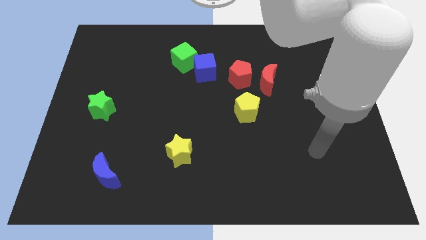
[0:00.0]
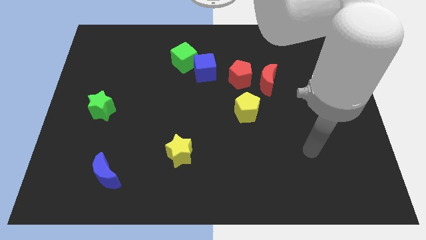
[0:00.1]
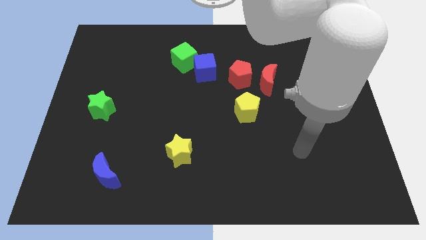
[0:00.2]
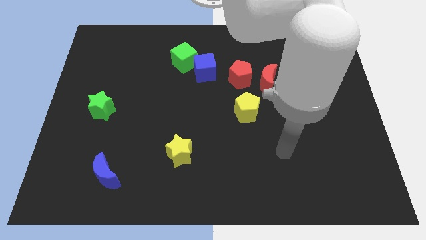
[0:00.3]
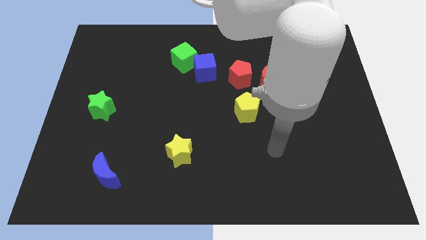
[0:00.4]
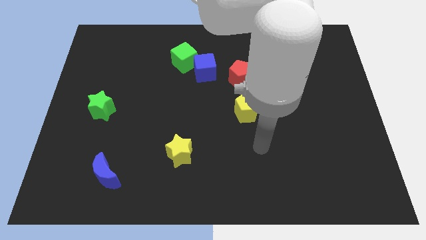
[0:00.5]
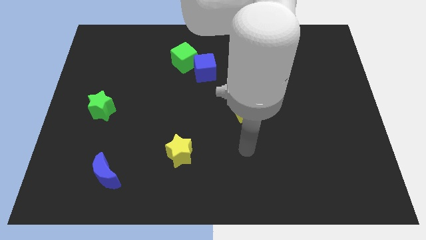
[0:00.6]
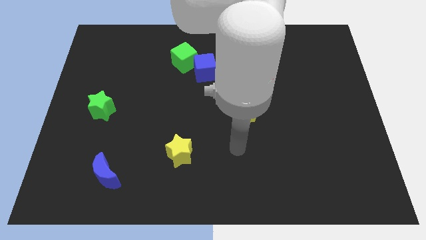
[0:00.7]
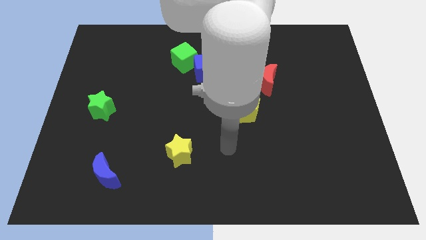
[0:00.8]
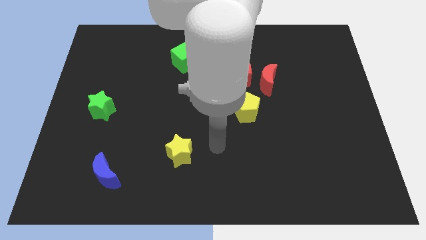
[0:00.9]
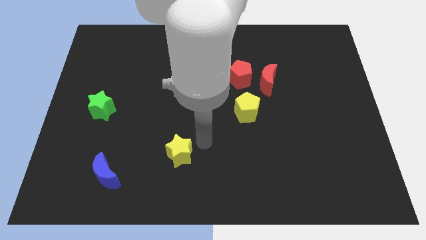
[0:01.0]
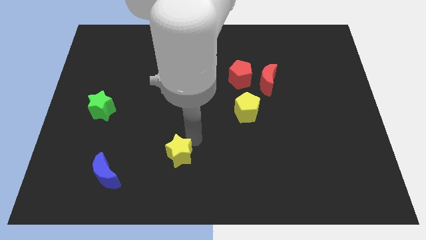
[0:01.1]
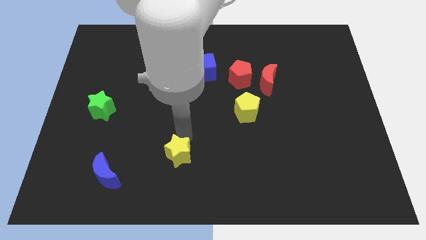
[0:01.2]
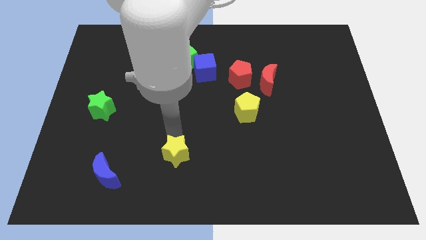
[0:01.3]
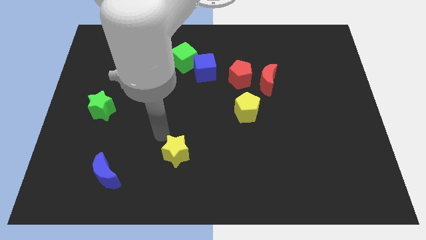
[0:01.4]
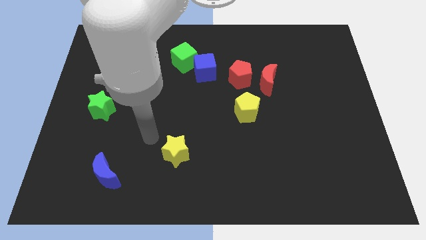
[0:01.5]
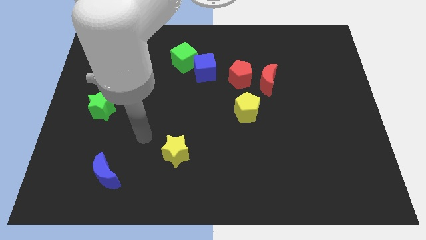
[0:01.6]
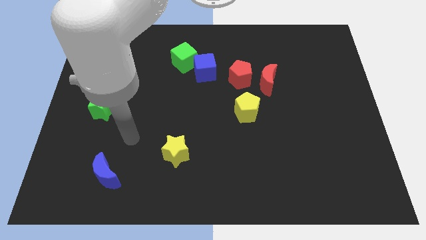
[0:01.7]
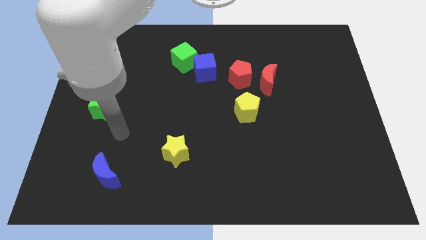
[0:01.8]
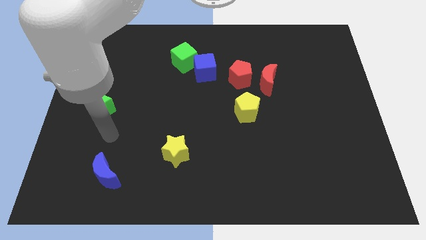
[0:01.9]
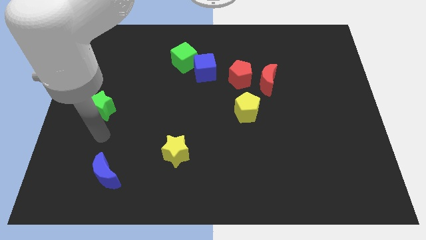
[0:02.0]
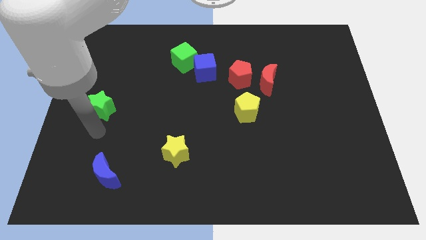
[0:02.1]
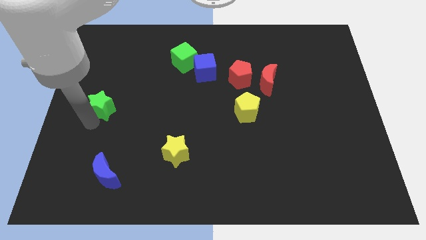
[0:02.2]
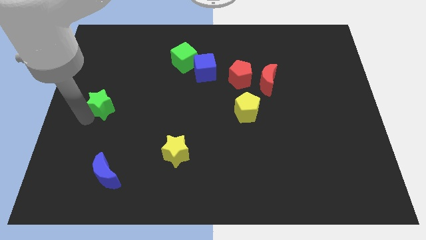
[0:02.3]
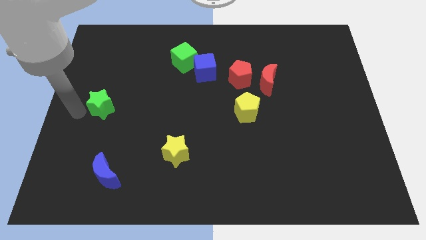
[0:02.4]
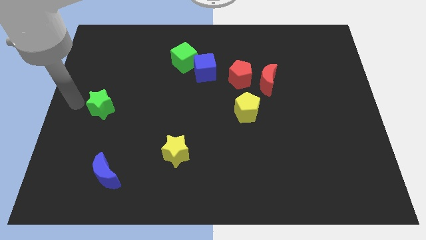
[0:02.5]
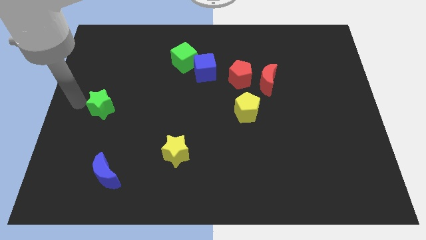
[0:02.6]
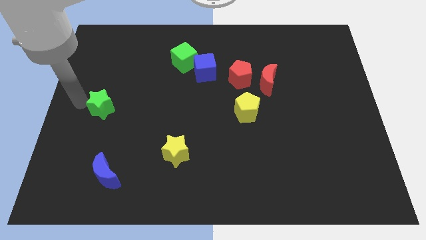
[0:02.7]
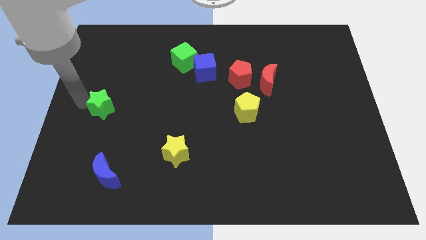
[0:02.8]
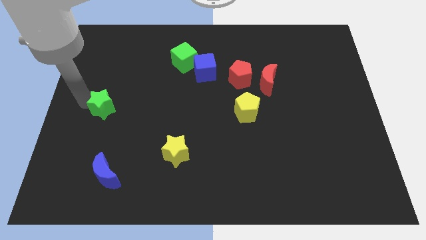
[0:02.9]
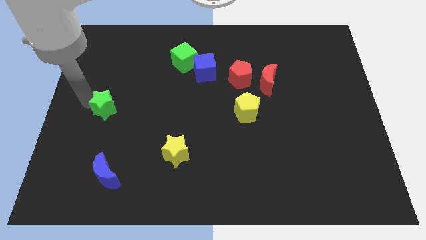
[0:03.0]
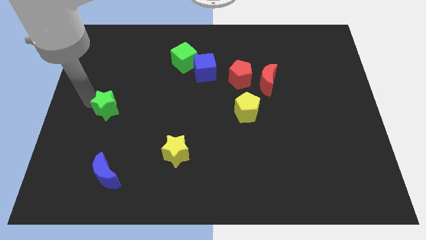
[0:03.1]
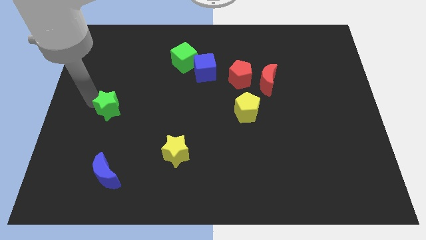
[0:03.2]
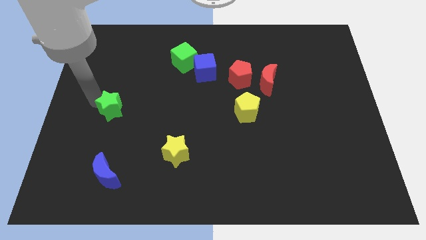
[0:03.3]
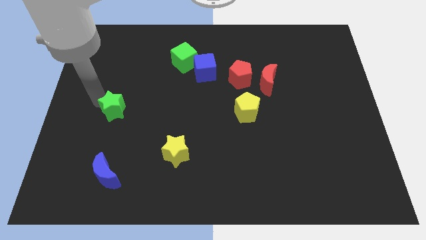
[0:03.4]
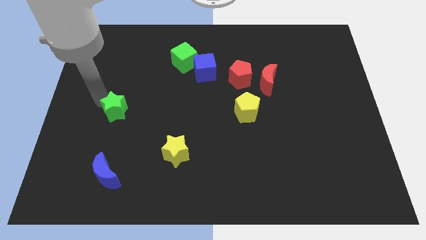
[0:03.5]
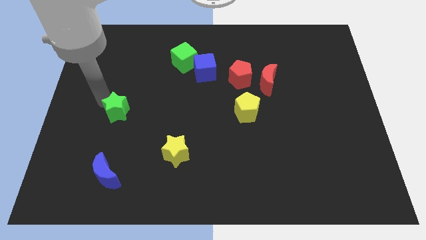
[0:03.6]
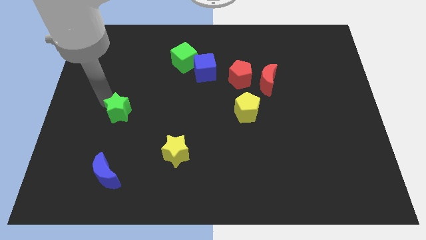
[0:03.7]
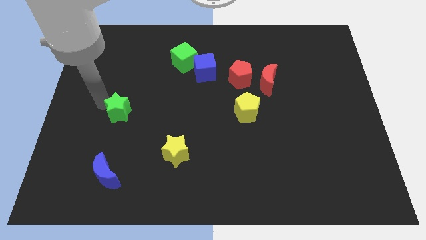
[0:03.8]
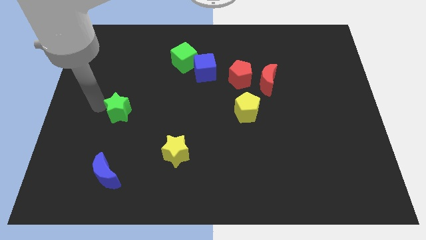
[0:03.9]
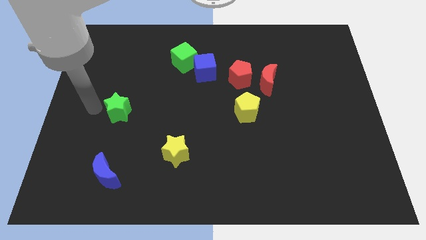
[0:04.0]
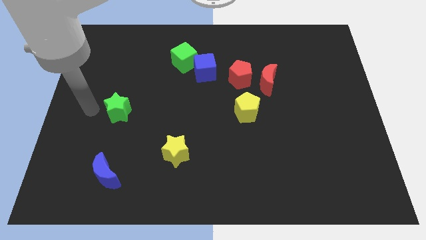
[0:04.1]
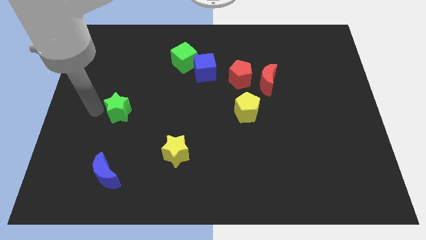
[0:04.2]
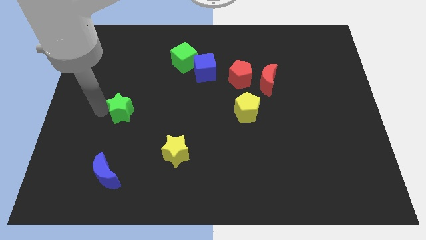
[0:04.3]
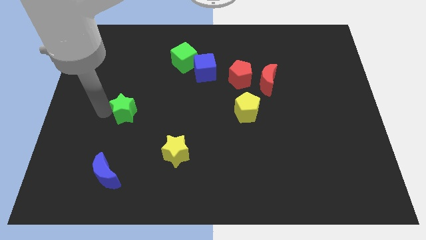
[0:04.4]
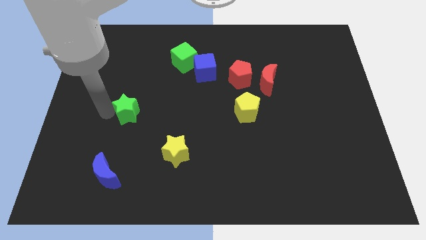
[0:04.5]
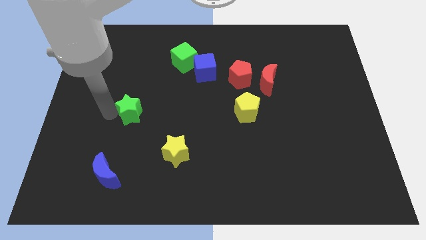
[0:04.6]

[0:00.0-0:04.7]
slightly slide the green star right

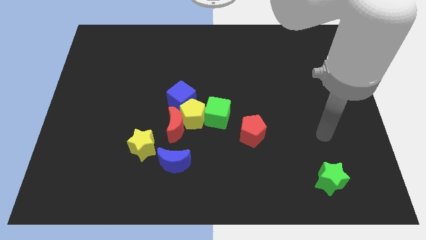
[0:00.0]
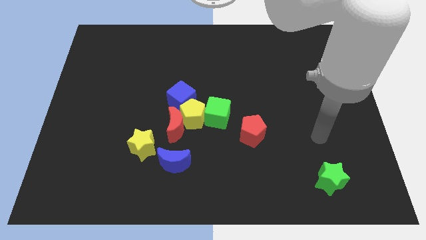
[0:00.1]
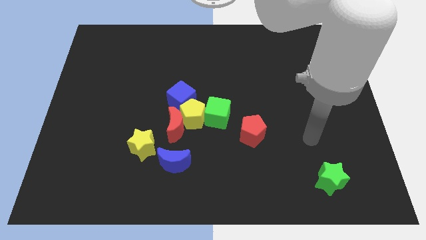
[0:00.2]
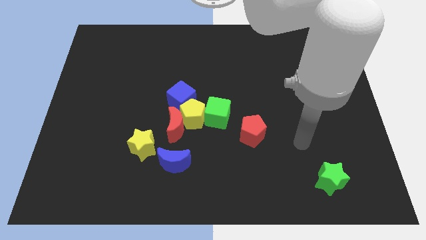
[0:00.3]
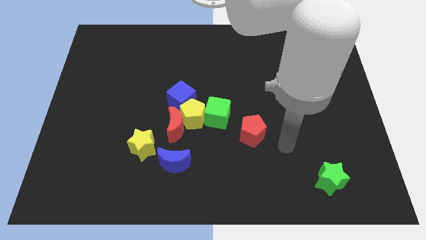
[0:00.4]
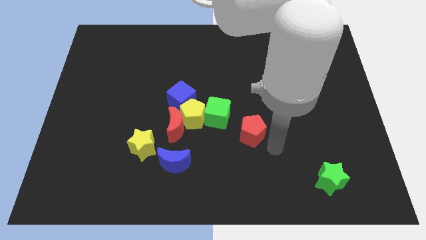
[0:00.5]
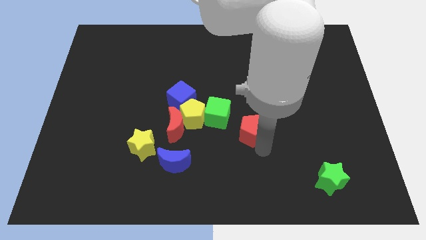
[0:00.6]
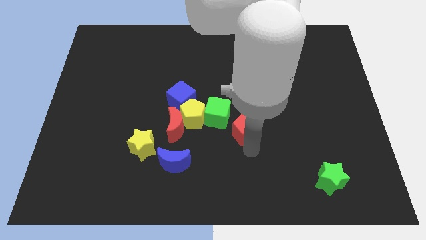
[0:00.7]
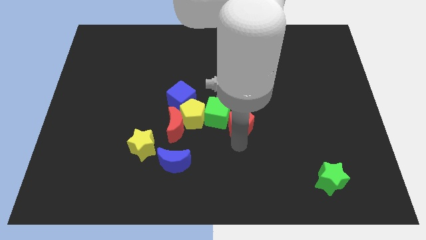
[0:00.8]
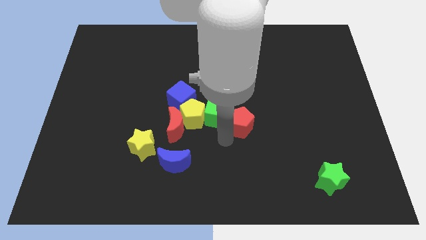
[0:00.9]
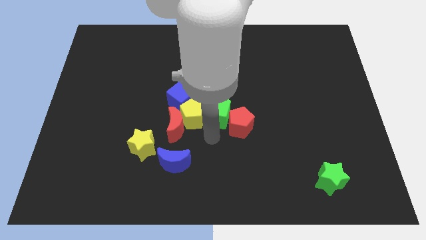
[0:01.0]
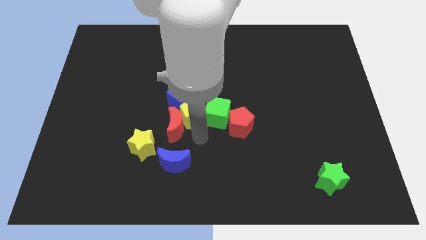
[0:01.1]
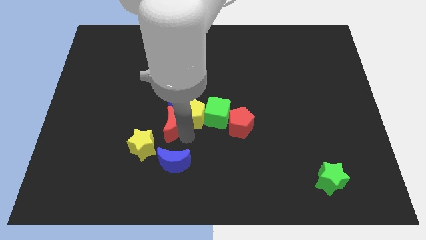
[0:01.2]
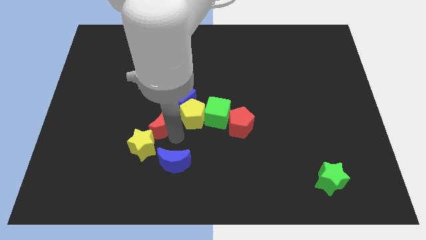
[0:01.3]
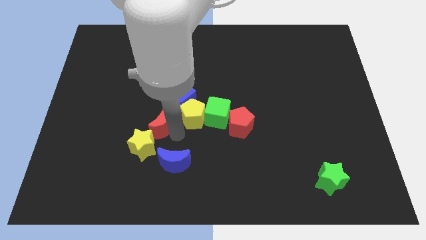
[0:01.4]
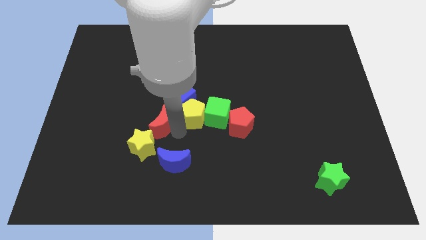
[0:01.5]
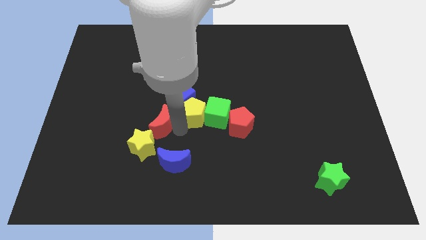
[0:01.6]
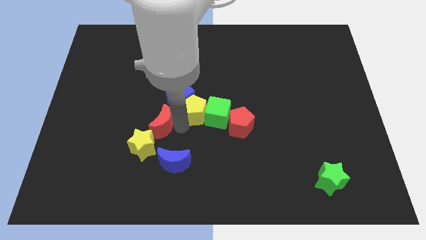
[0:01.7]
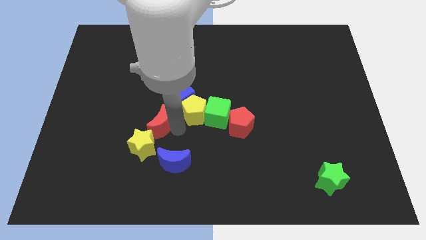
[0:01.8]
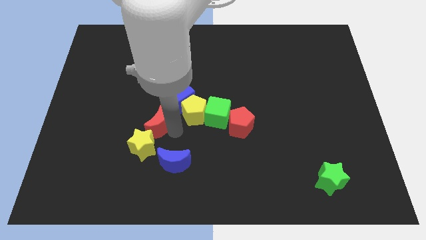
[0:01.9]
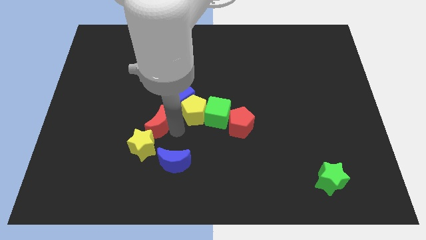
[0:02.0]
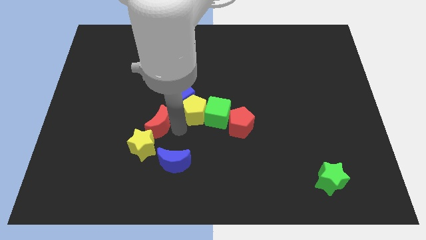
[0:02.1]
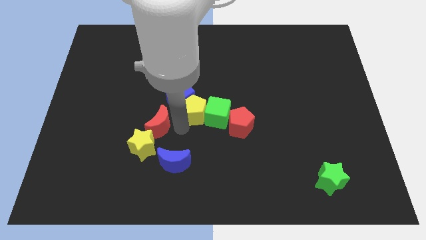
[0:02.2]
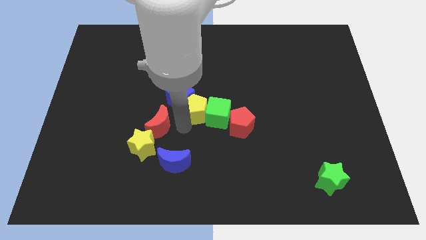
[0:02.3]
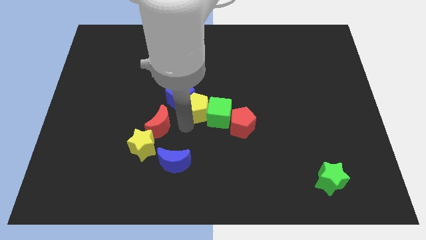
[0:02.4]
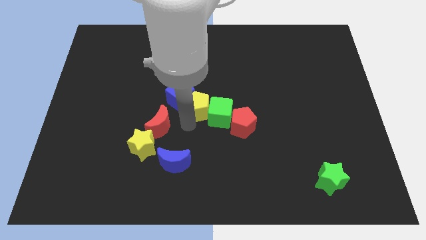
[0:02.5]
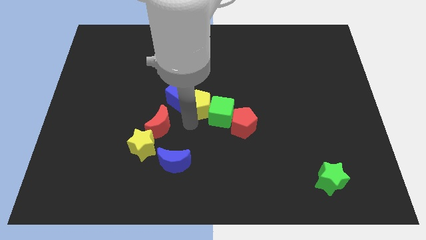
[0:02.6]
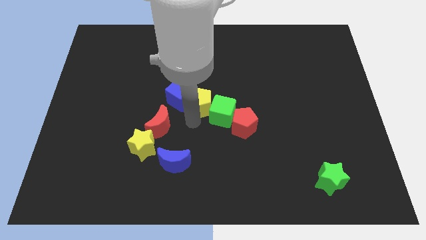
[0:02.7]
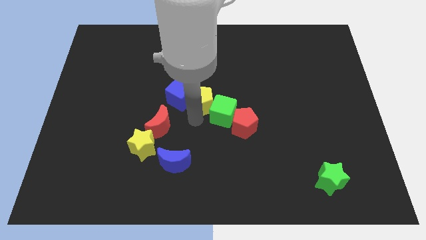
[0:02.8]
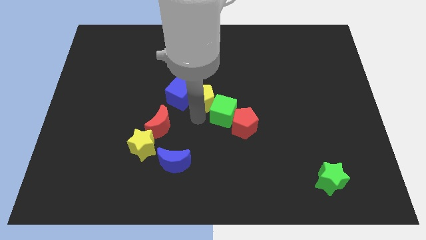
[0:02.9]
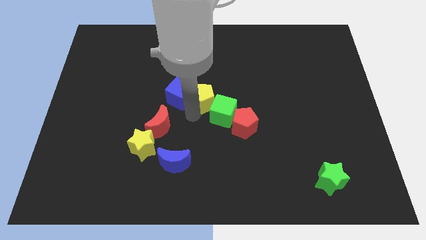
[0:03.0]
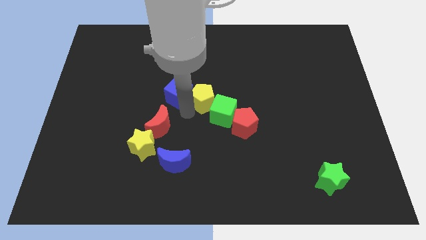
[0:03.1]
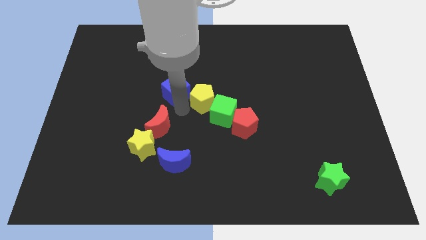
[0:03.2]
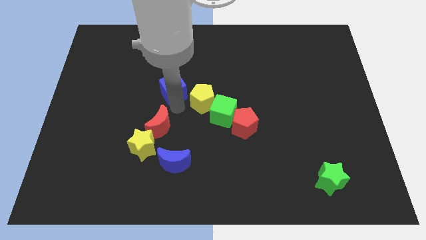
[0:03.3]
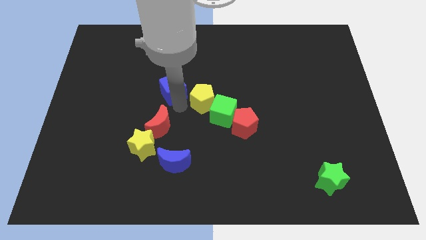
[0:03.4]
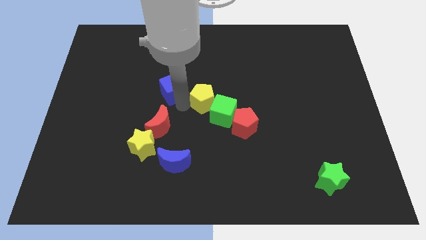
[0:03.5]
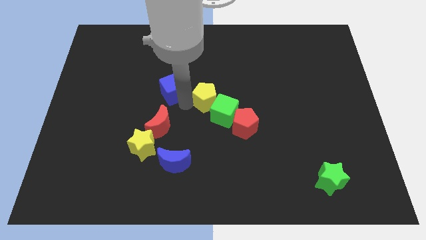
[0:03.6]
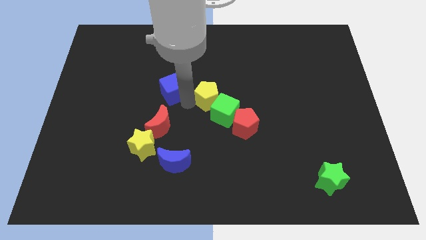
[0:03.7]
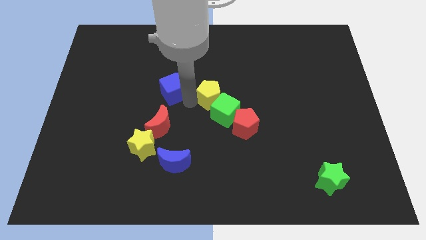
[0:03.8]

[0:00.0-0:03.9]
push the yellow pentagon up and to the right a bit
